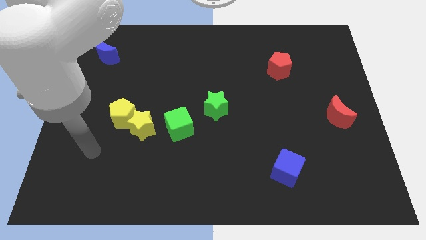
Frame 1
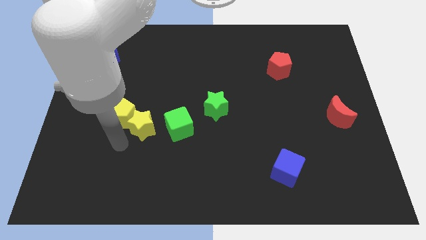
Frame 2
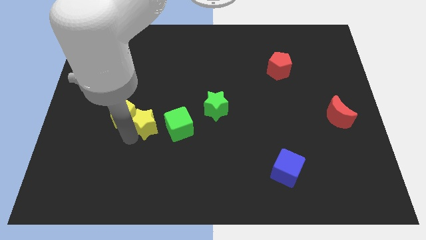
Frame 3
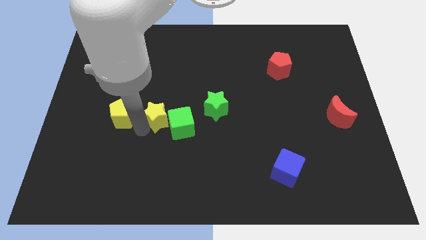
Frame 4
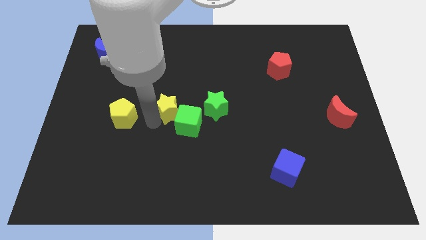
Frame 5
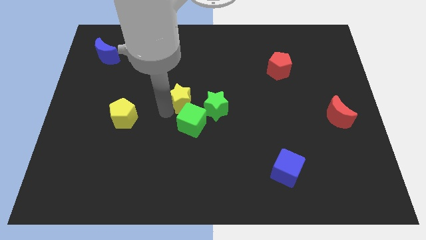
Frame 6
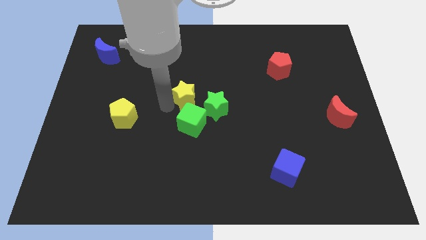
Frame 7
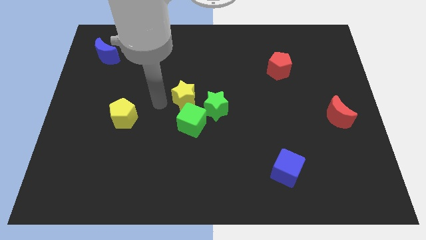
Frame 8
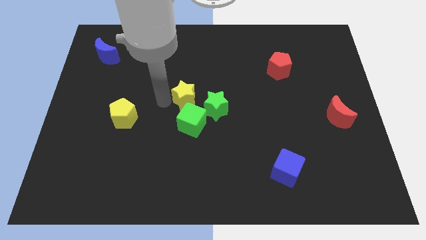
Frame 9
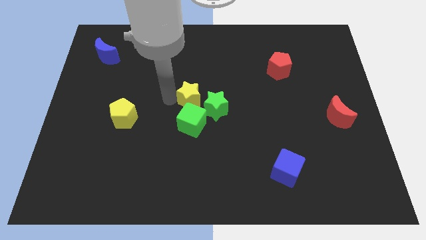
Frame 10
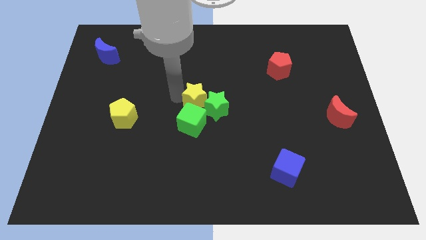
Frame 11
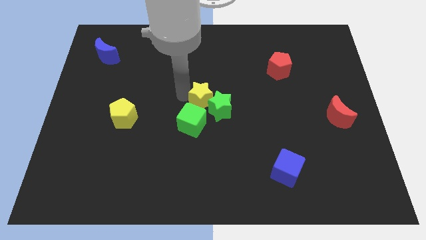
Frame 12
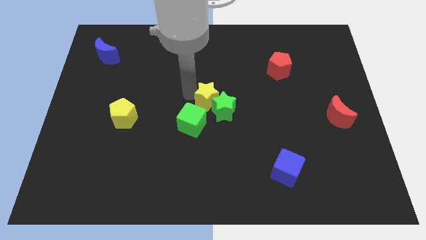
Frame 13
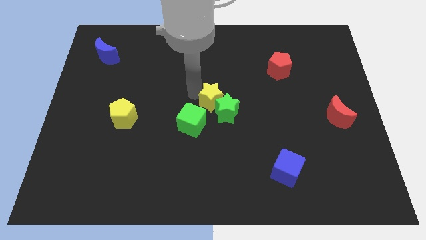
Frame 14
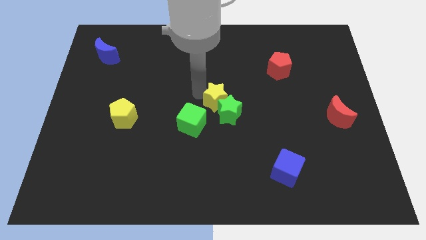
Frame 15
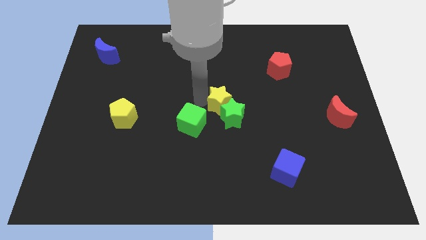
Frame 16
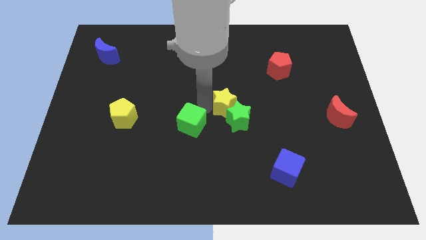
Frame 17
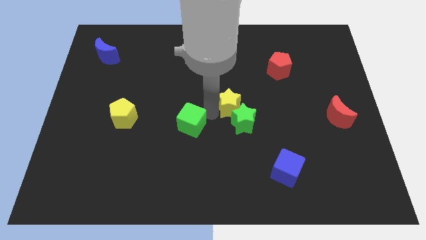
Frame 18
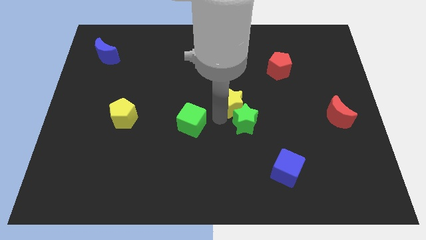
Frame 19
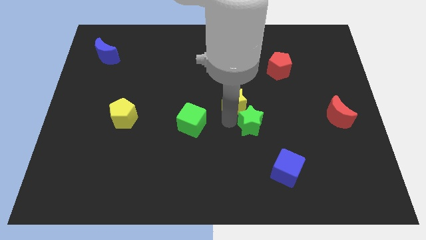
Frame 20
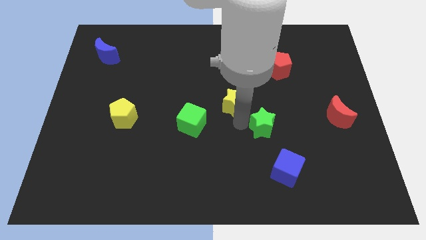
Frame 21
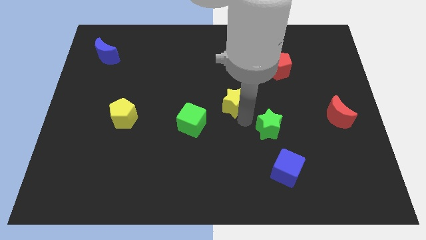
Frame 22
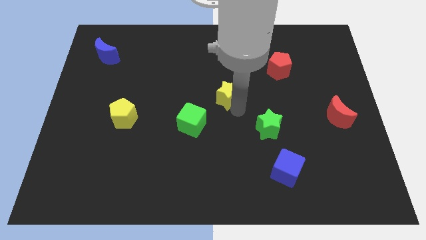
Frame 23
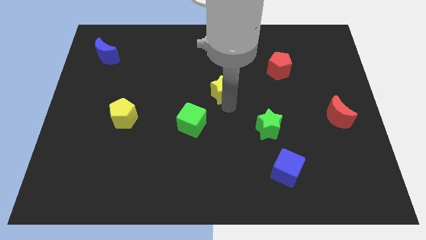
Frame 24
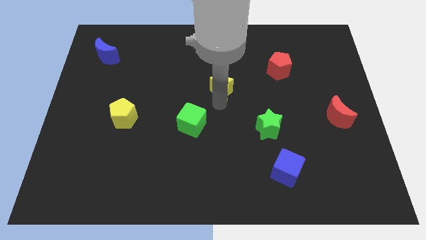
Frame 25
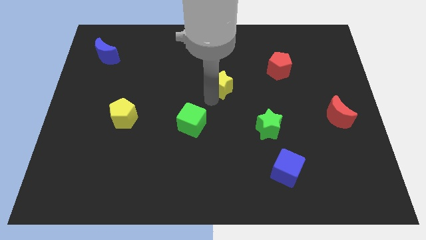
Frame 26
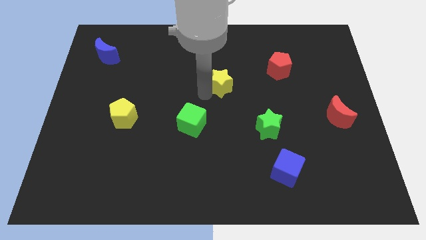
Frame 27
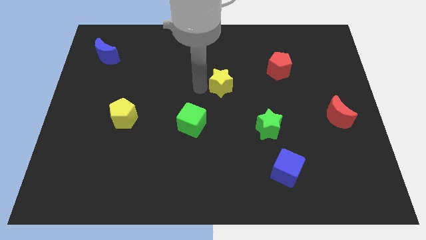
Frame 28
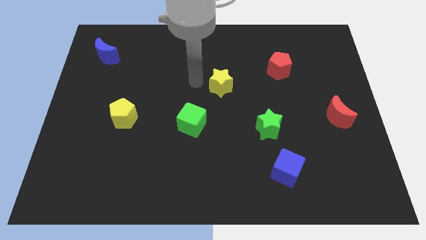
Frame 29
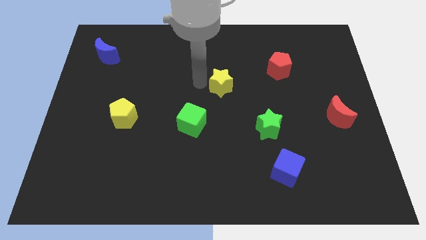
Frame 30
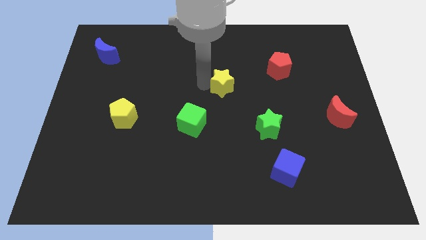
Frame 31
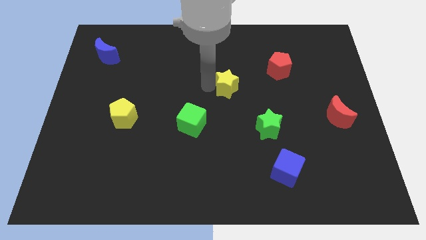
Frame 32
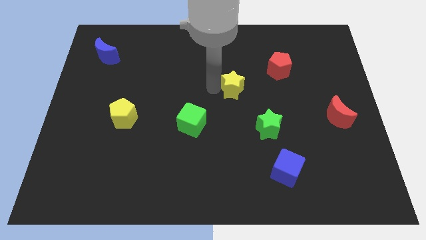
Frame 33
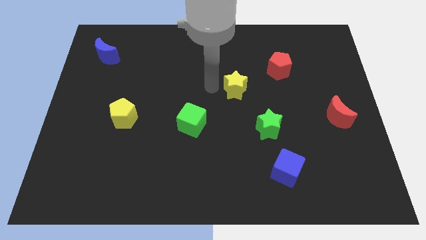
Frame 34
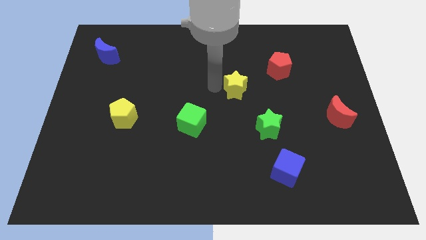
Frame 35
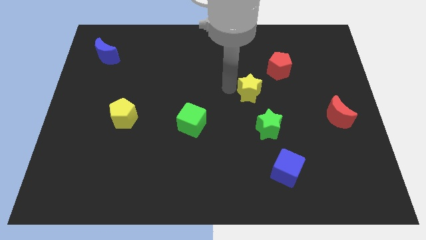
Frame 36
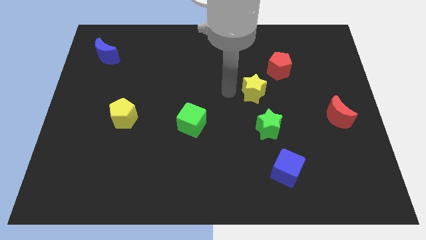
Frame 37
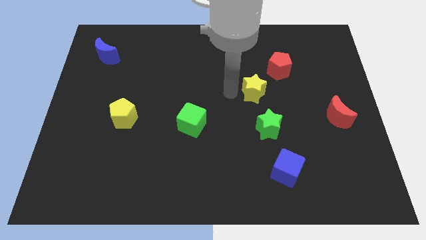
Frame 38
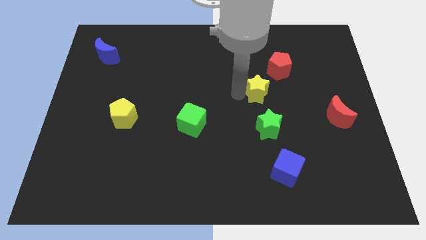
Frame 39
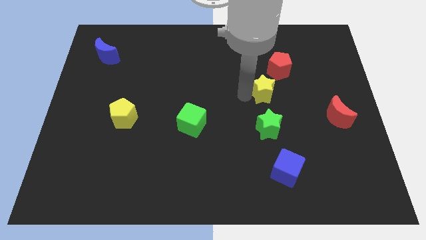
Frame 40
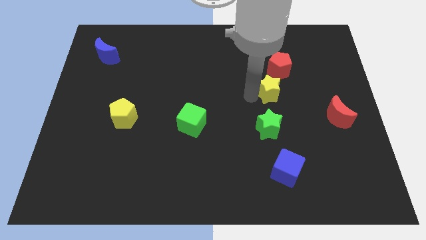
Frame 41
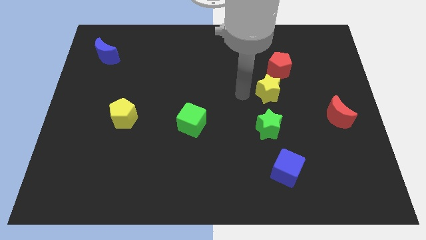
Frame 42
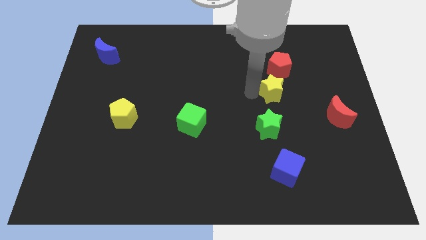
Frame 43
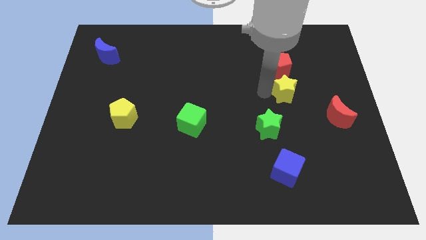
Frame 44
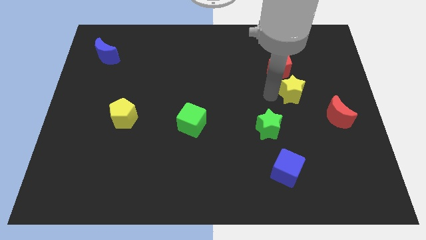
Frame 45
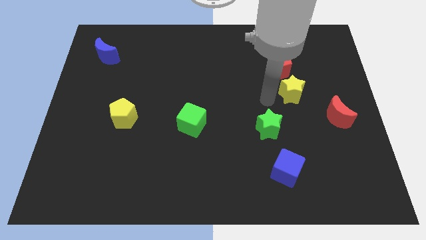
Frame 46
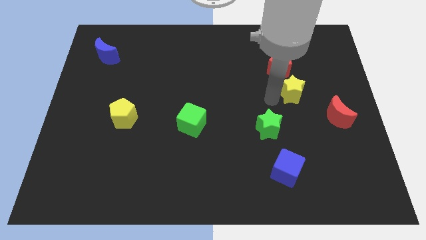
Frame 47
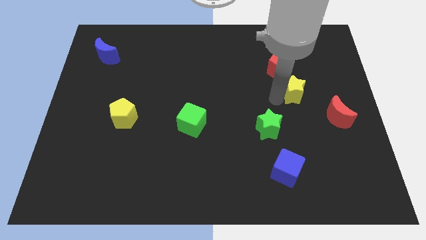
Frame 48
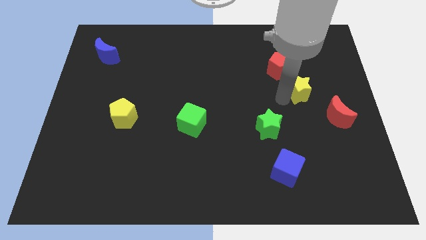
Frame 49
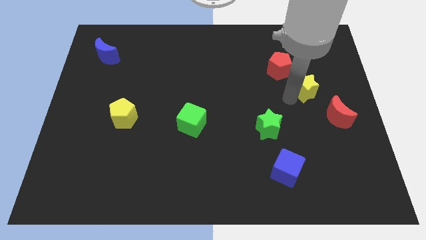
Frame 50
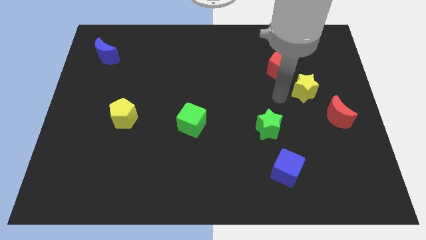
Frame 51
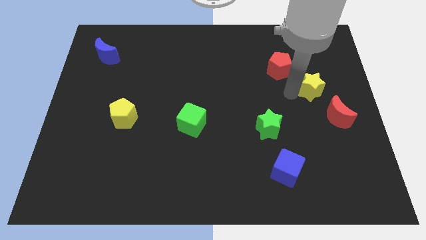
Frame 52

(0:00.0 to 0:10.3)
slide the yellow star to the top side of the red moon

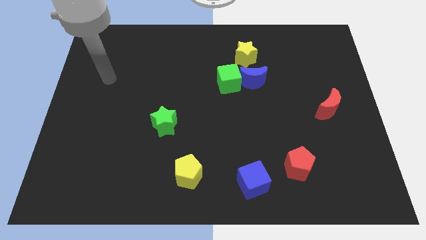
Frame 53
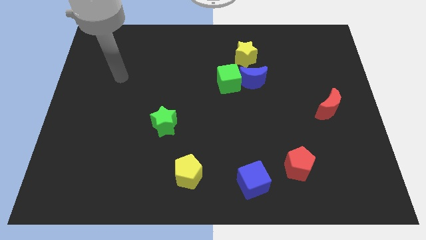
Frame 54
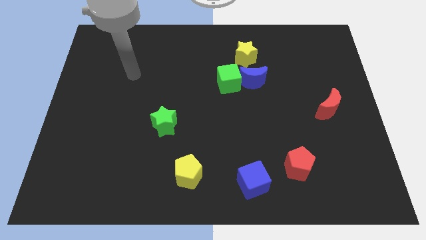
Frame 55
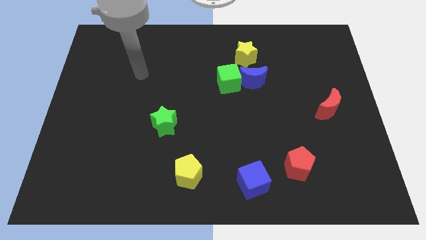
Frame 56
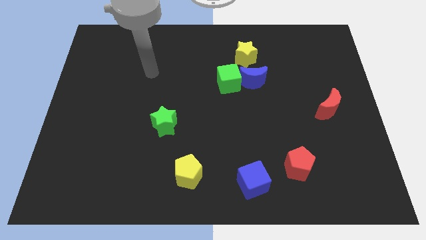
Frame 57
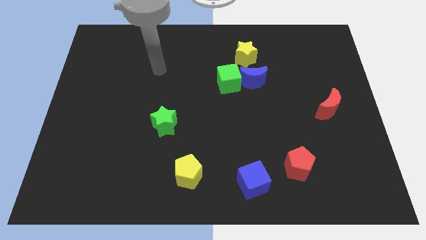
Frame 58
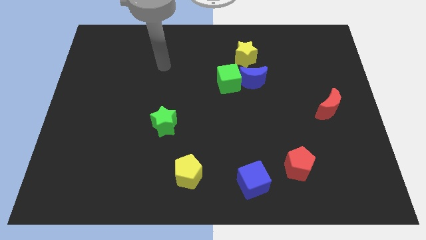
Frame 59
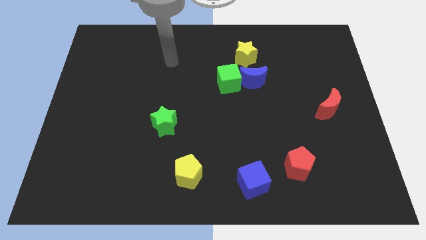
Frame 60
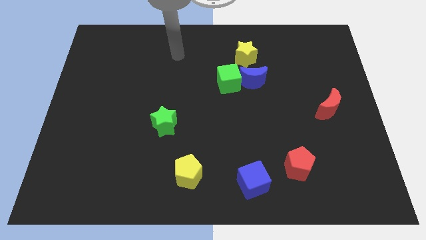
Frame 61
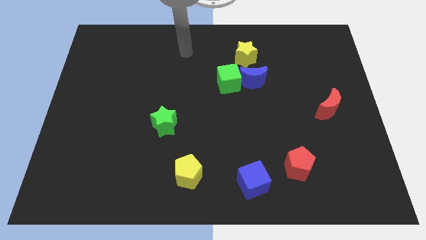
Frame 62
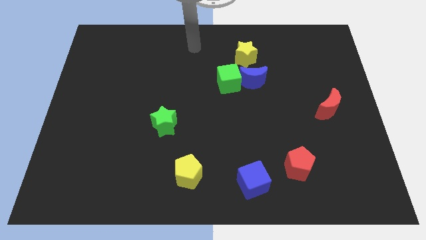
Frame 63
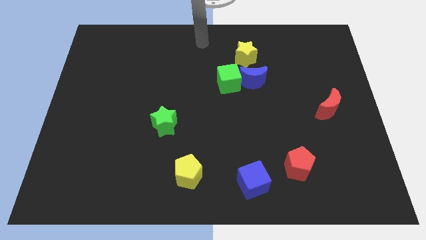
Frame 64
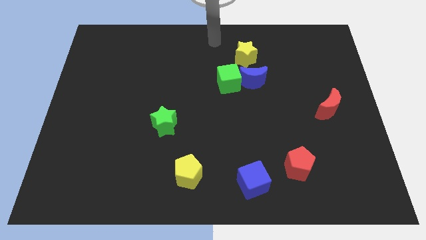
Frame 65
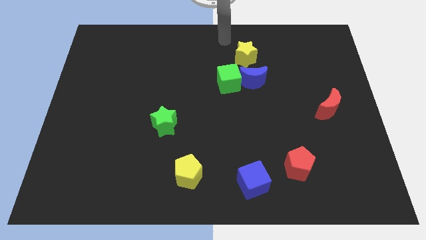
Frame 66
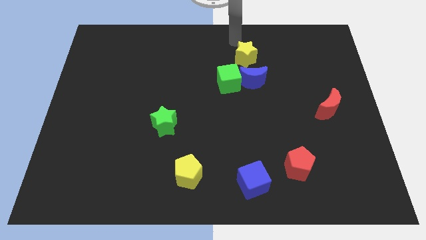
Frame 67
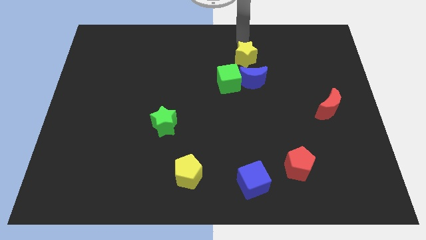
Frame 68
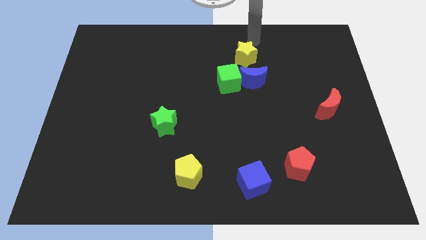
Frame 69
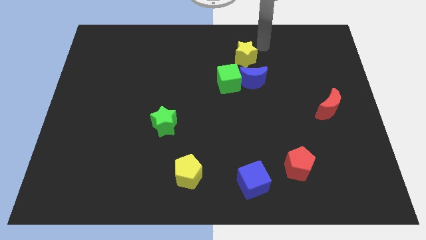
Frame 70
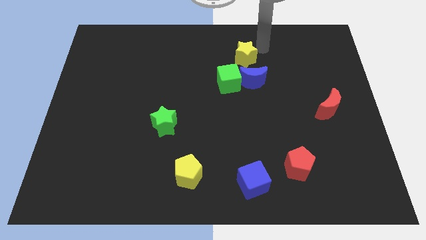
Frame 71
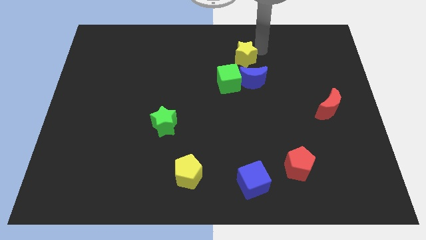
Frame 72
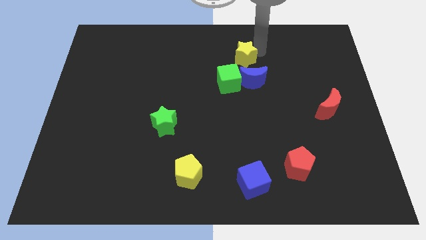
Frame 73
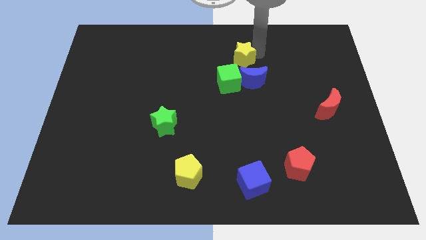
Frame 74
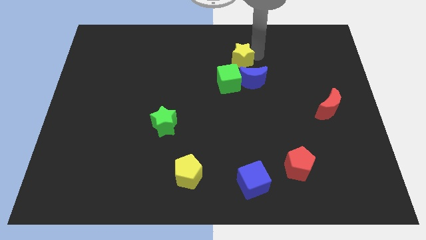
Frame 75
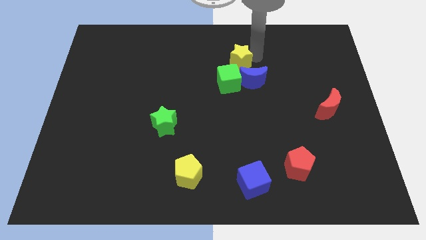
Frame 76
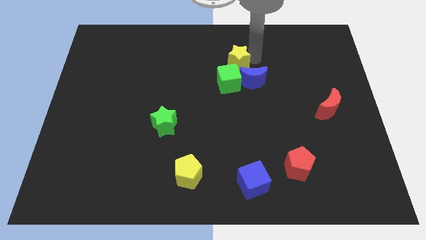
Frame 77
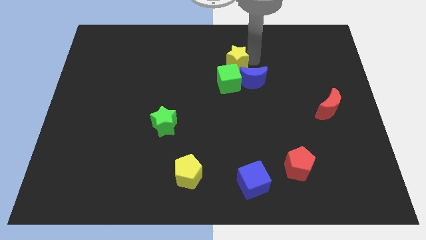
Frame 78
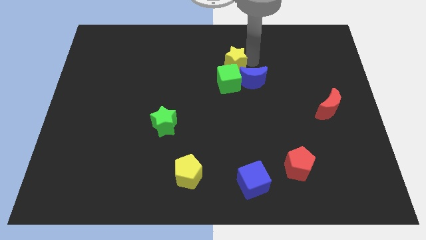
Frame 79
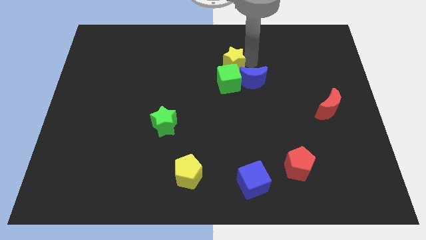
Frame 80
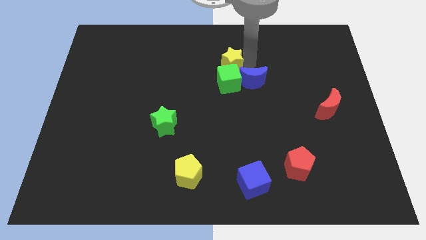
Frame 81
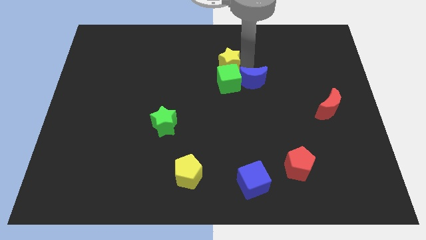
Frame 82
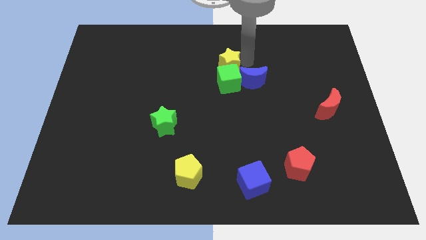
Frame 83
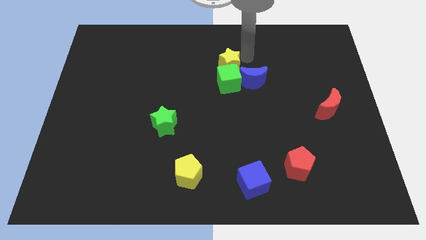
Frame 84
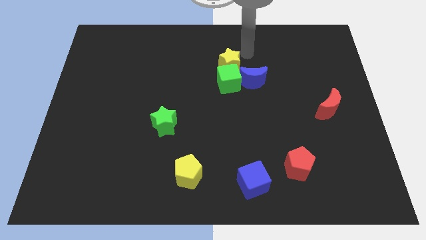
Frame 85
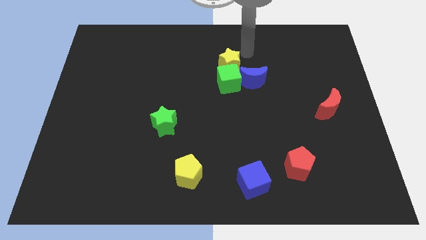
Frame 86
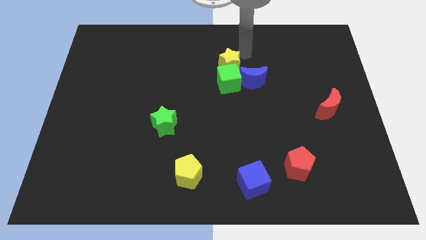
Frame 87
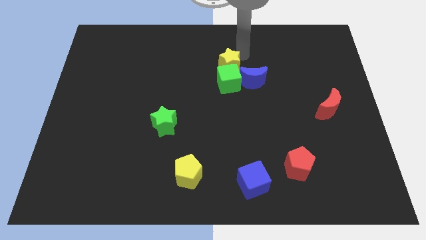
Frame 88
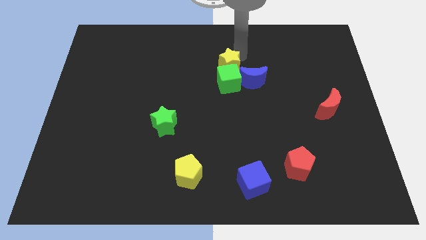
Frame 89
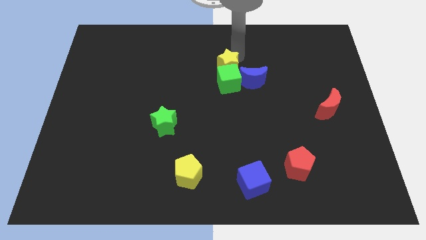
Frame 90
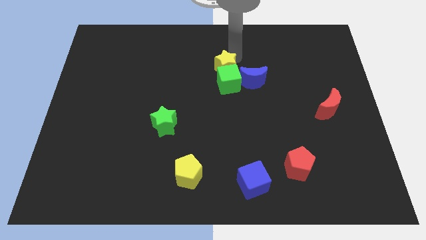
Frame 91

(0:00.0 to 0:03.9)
move the yellow star left of the blue moon
